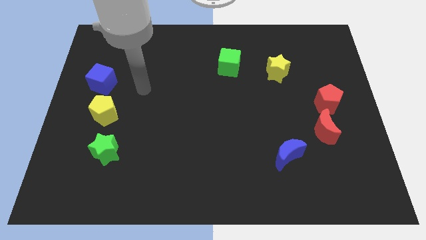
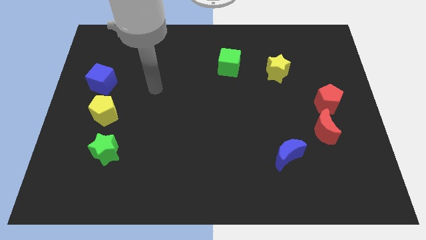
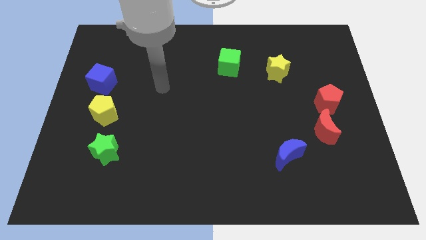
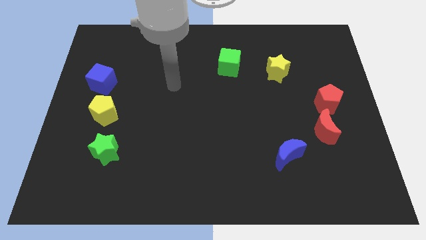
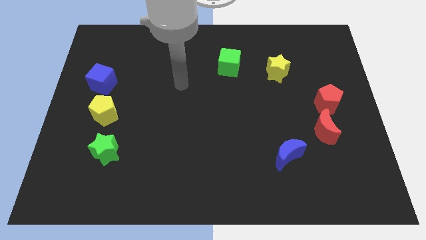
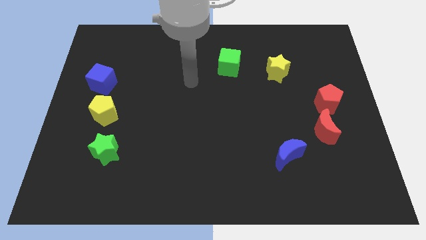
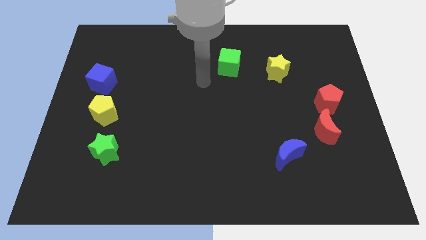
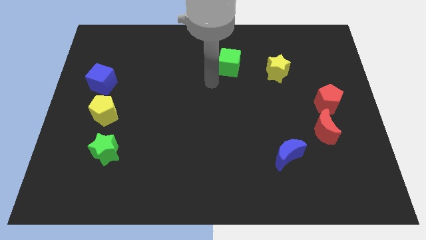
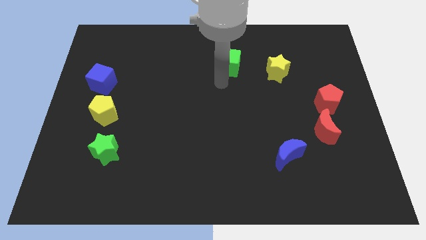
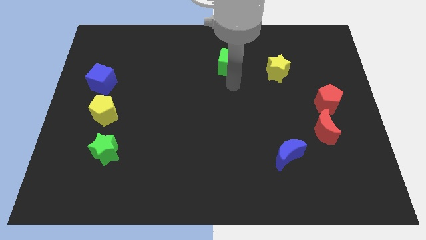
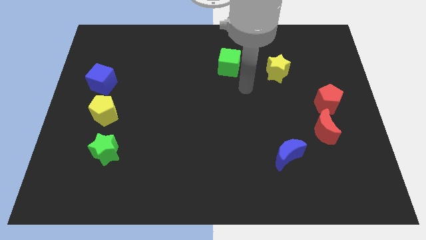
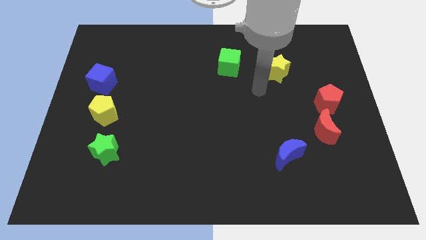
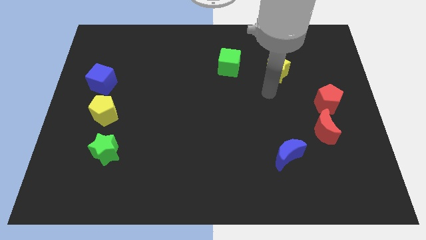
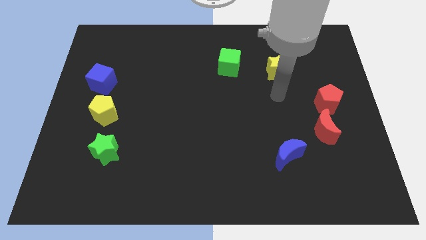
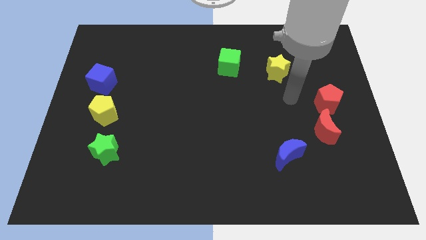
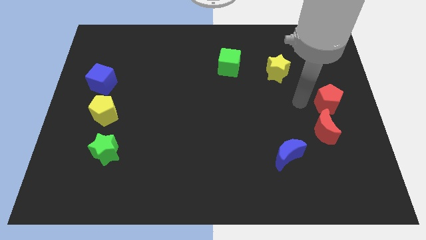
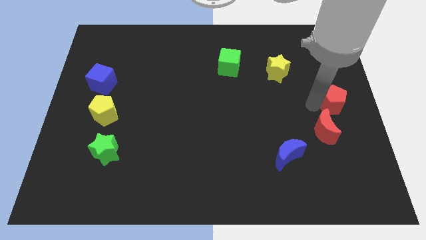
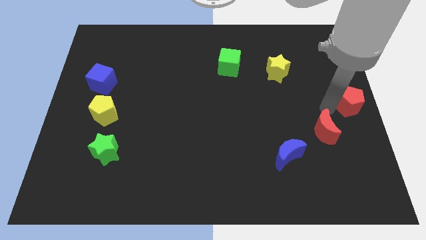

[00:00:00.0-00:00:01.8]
move the red moon away from the red pentagon

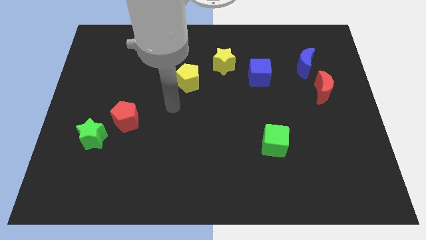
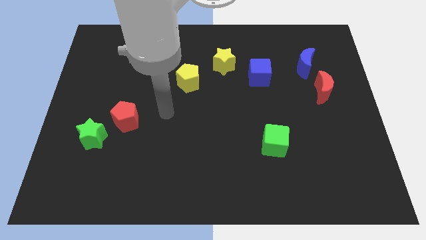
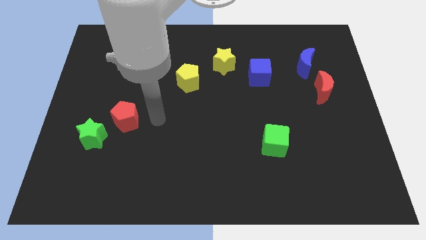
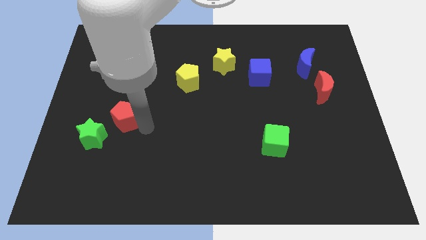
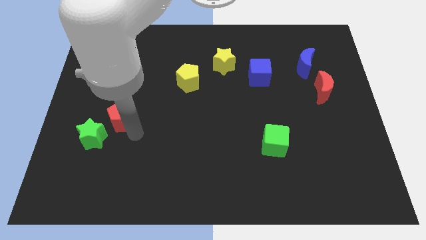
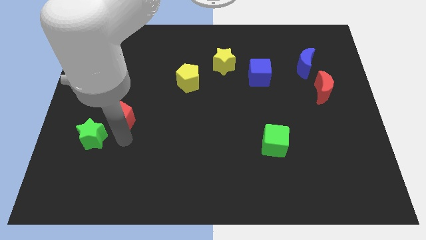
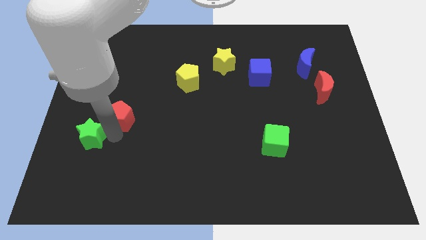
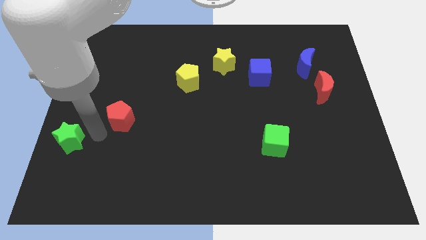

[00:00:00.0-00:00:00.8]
separate the red pentagon from the green star

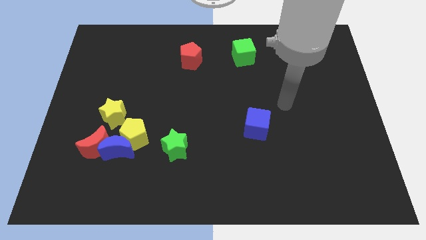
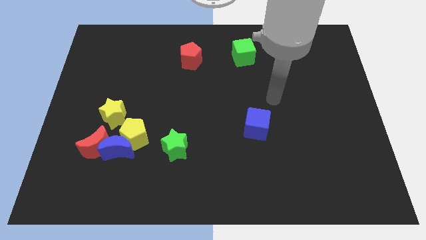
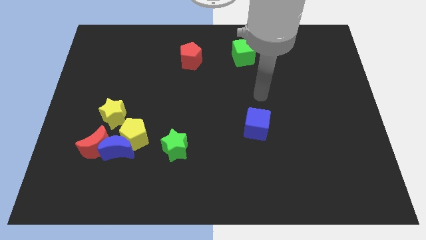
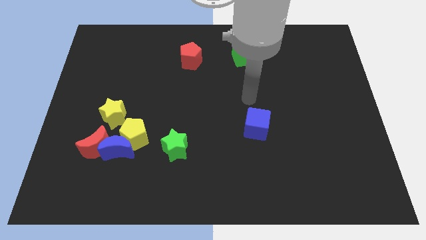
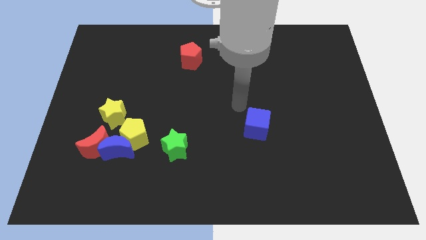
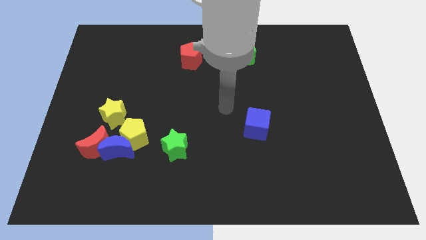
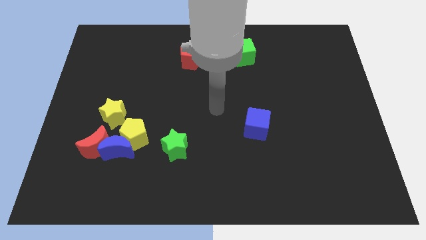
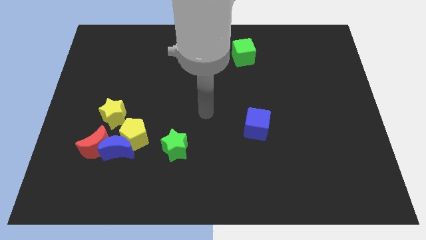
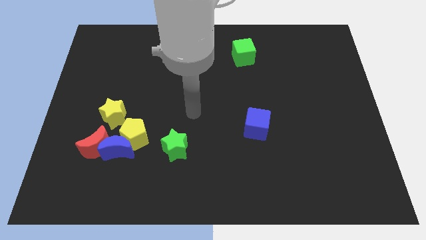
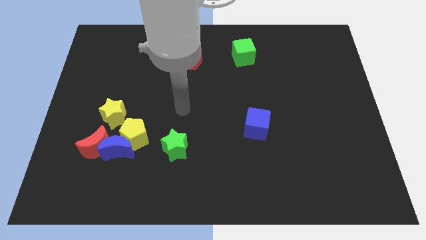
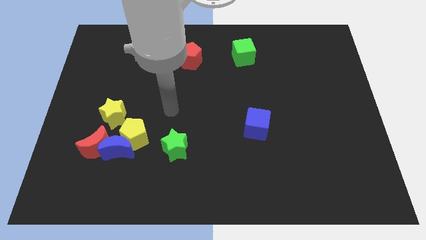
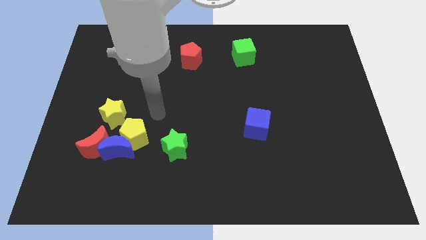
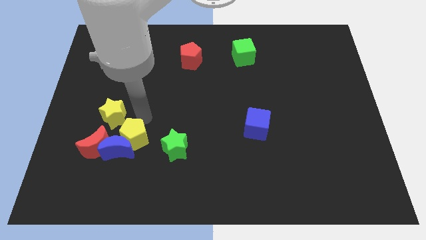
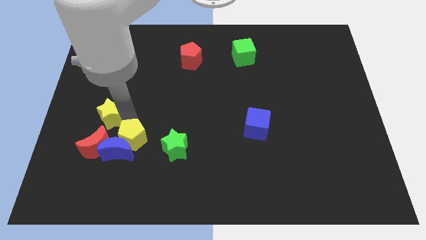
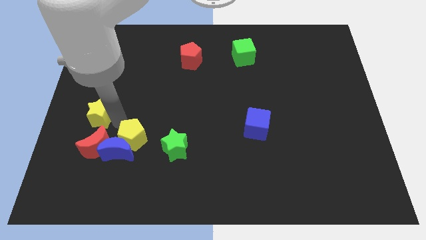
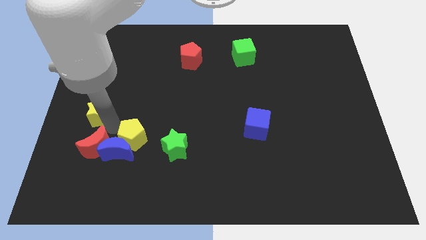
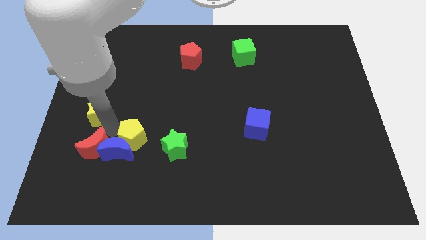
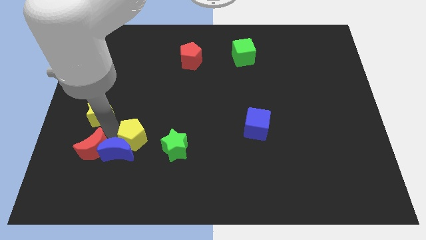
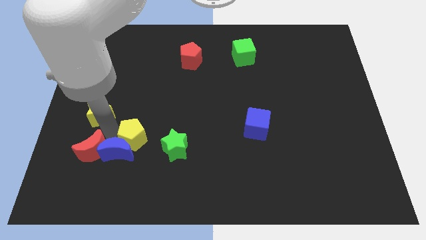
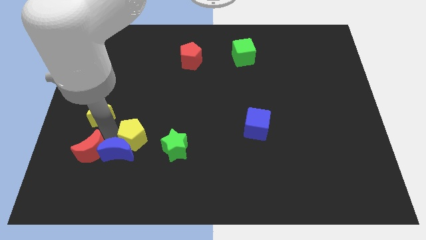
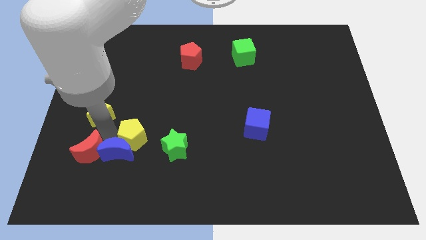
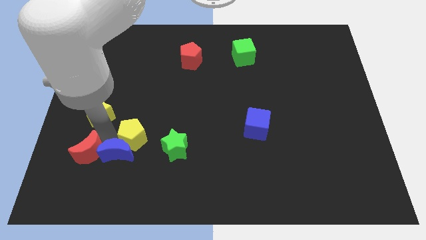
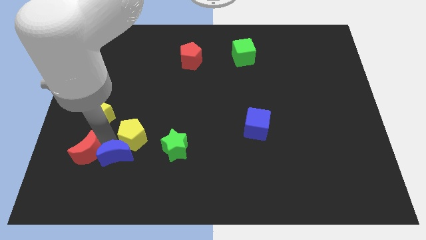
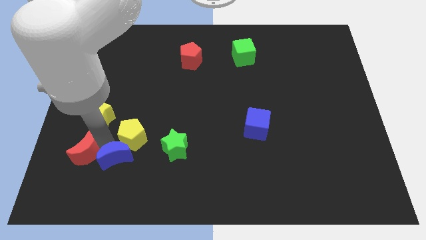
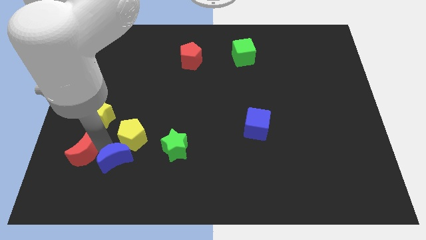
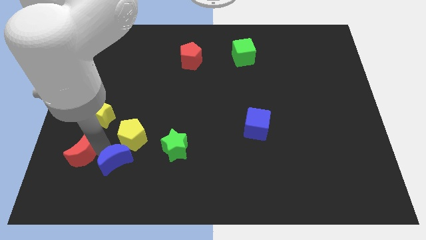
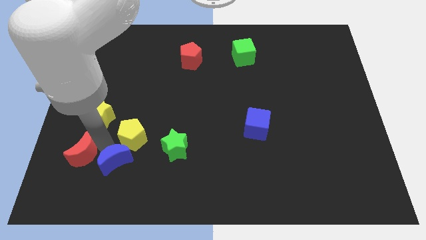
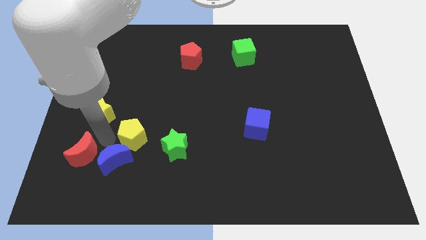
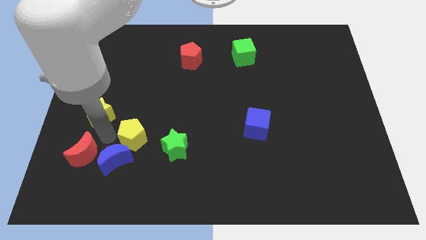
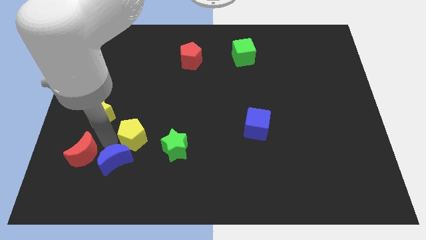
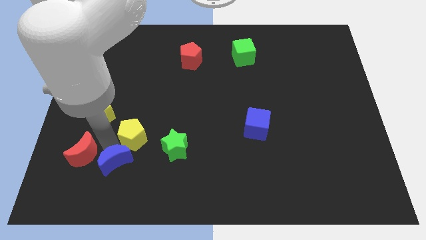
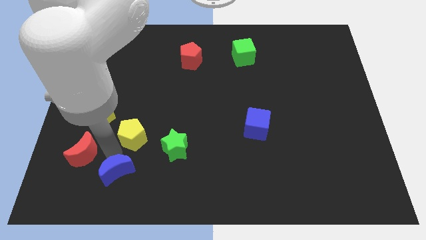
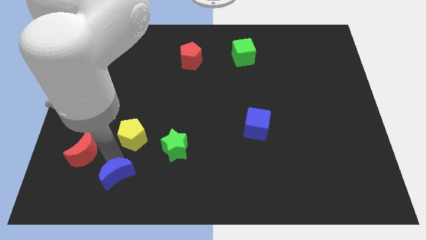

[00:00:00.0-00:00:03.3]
pull the blue moon apart from the red moon, yellow pentagon, and yellow star

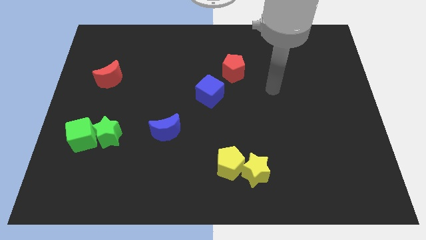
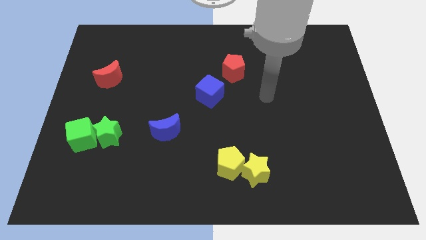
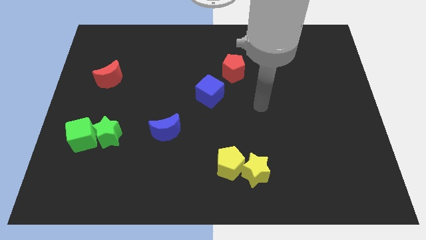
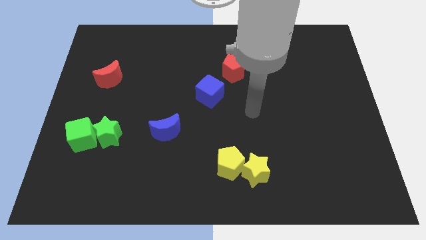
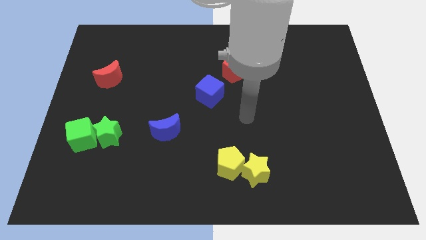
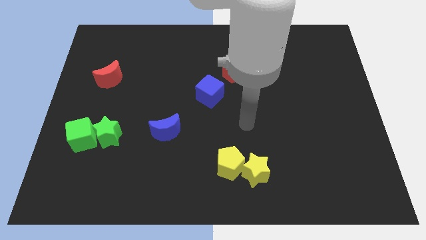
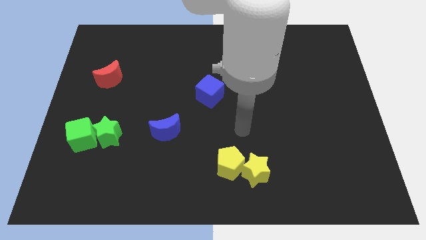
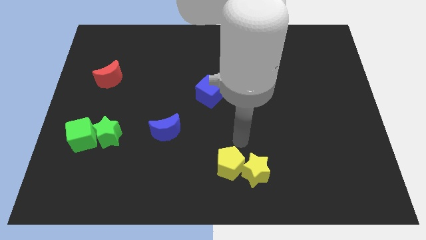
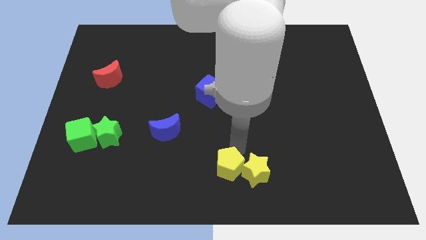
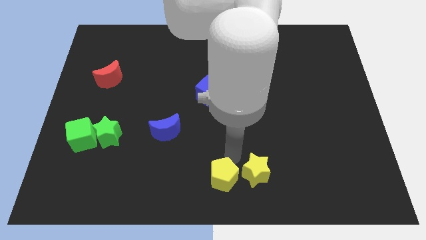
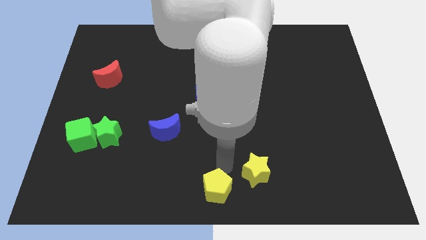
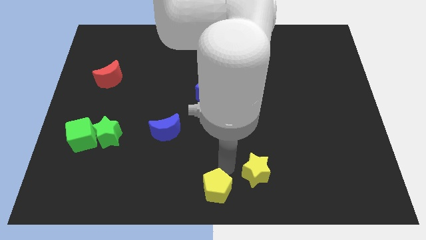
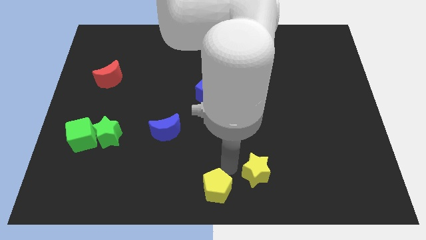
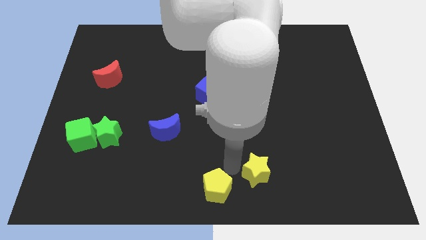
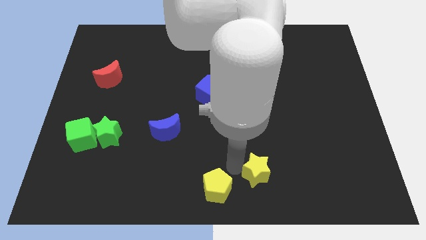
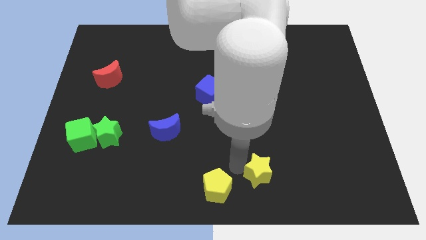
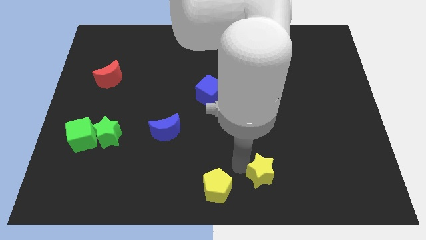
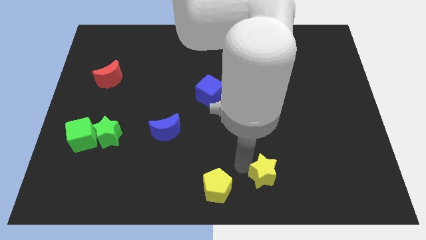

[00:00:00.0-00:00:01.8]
move the yellow star away from the yellow pentagon

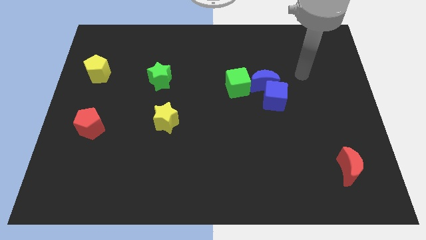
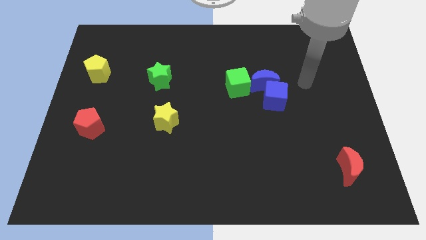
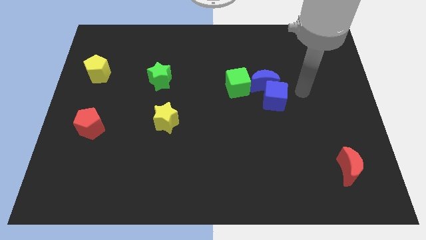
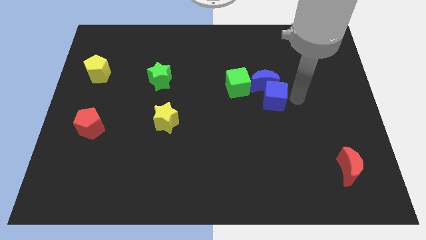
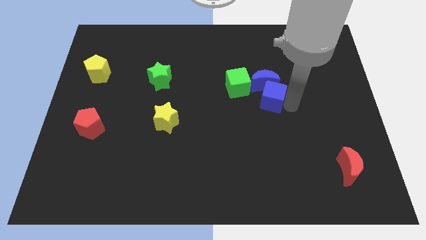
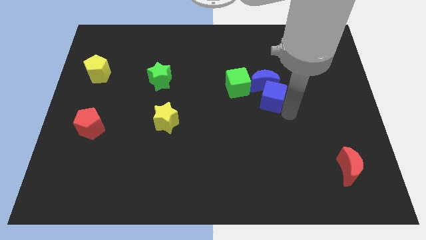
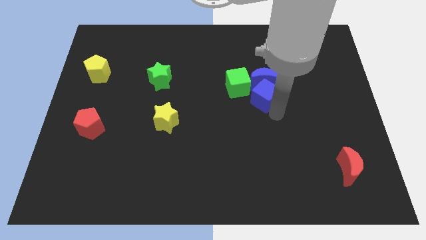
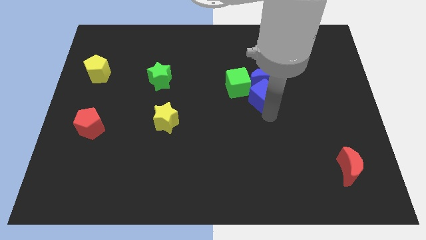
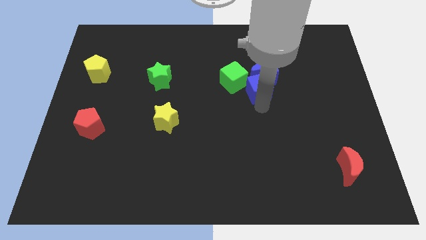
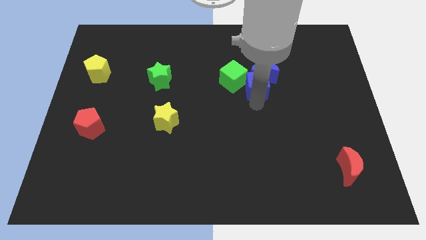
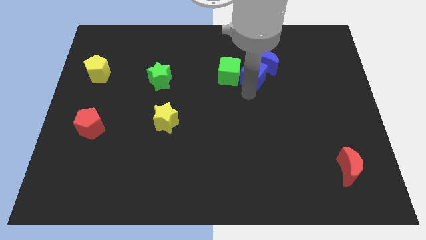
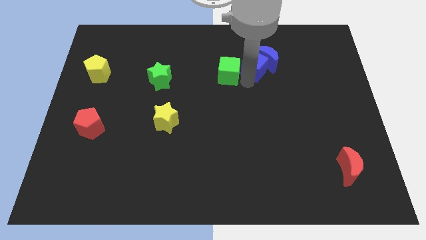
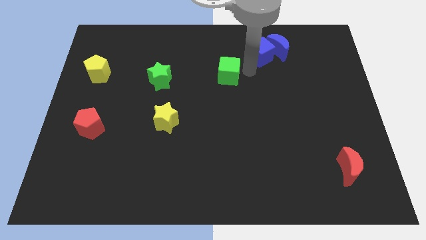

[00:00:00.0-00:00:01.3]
pull the blue moon apart from the blue cube and green cube

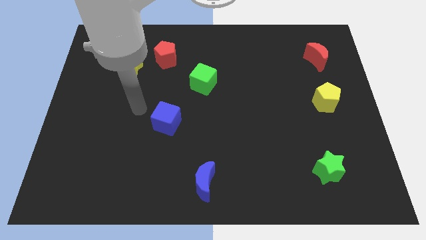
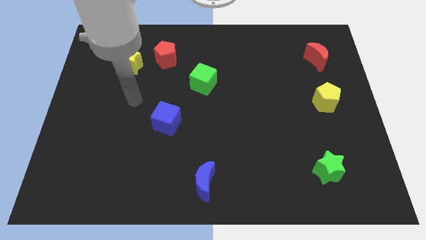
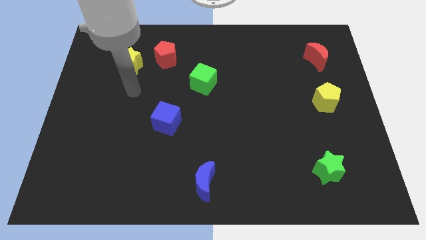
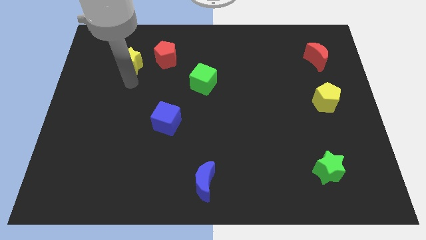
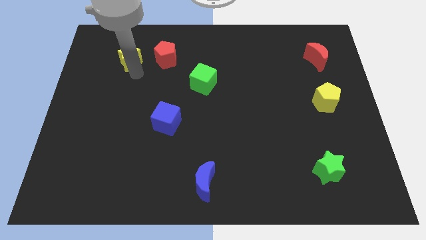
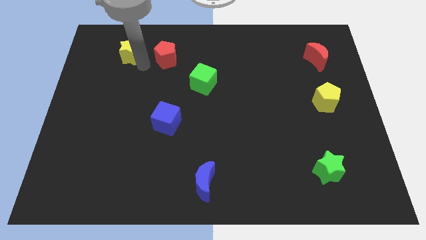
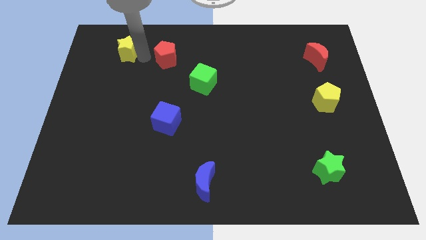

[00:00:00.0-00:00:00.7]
separate the red pentagon from the yellow star
